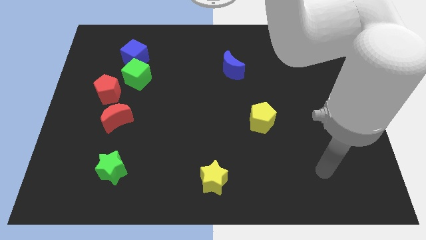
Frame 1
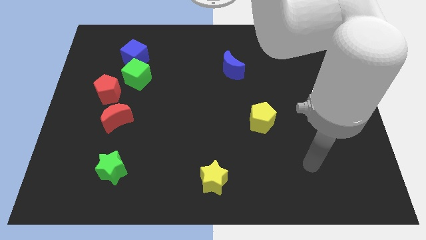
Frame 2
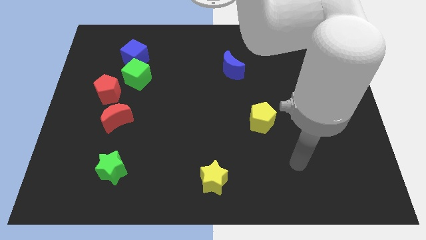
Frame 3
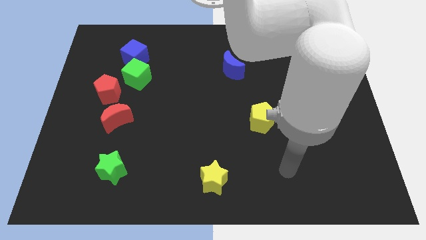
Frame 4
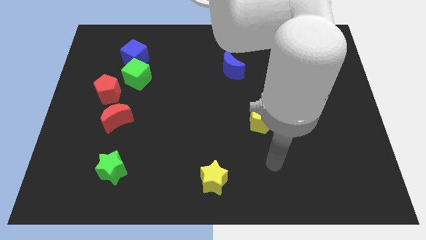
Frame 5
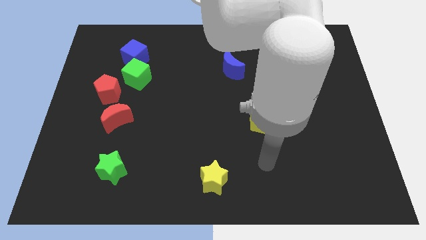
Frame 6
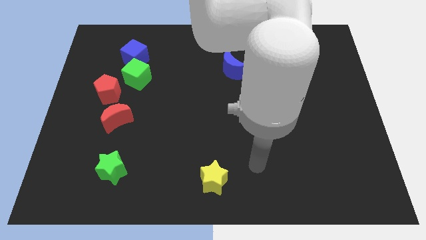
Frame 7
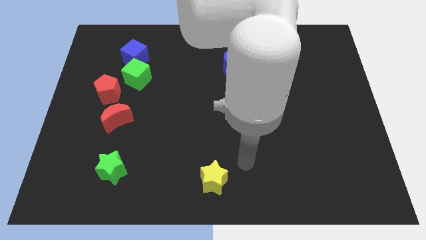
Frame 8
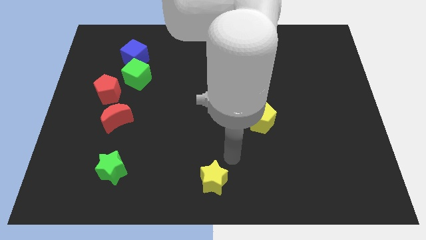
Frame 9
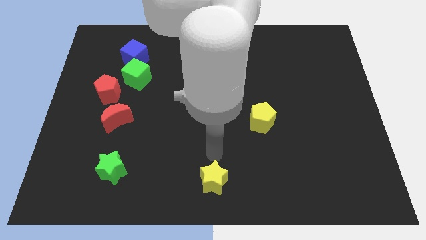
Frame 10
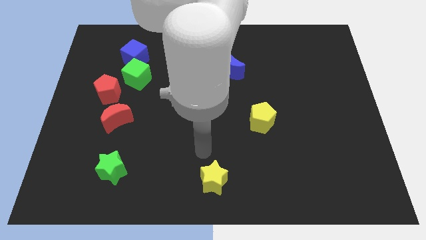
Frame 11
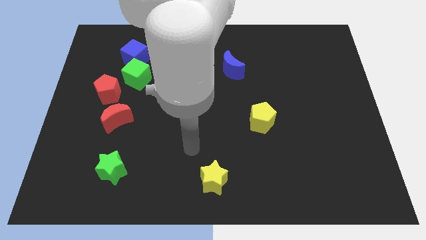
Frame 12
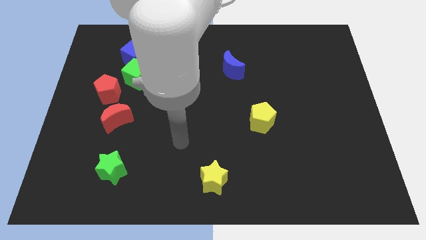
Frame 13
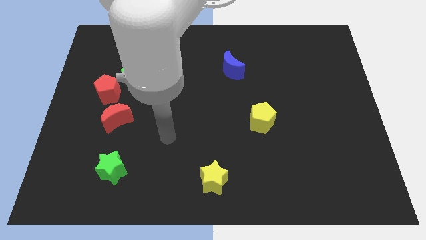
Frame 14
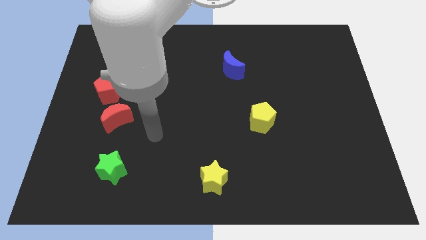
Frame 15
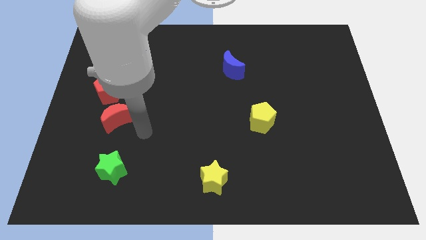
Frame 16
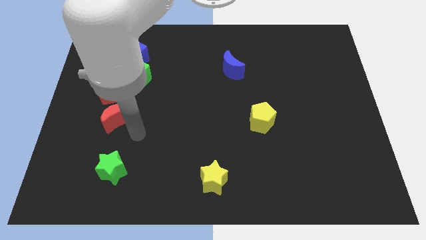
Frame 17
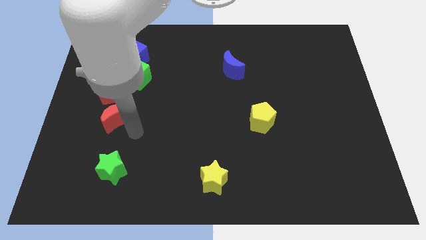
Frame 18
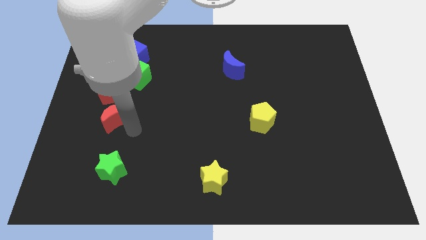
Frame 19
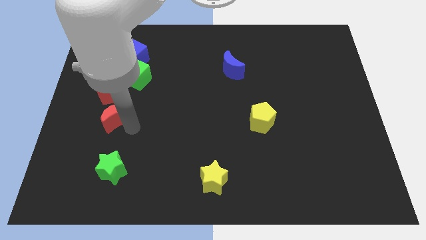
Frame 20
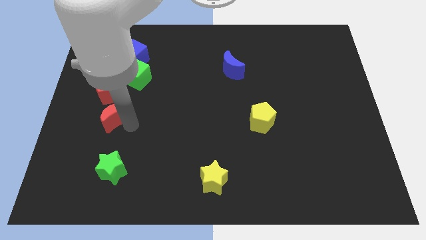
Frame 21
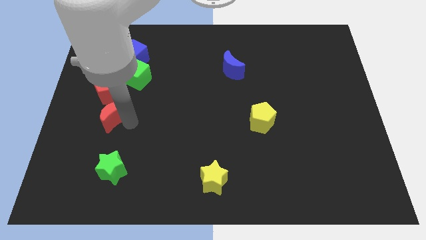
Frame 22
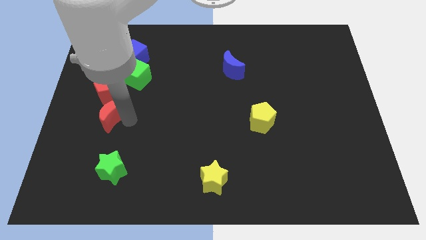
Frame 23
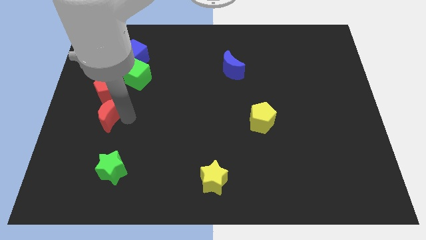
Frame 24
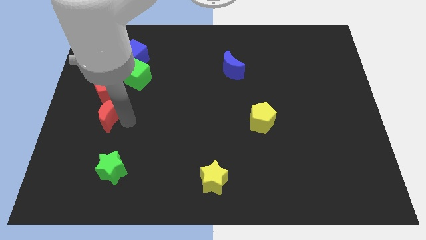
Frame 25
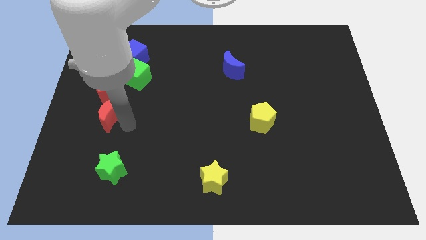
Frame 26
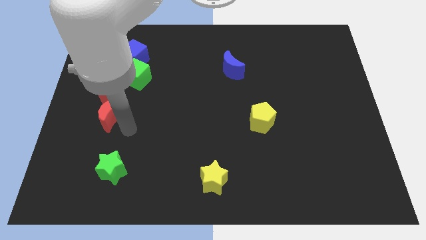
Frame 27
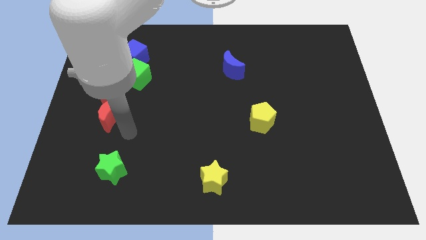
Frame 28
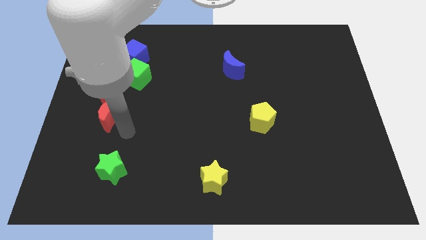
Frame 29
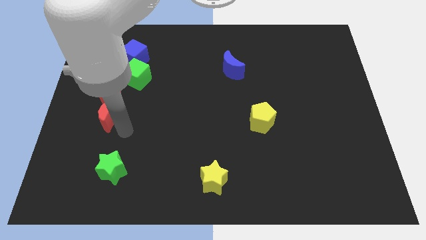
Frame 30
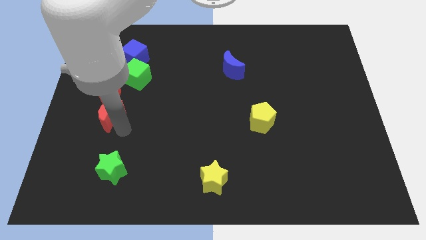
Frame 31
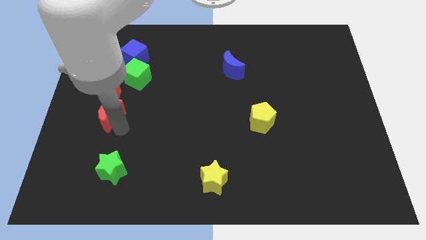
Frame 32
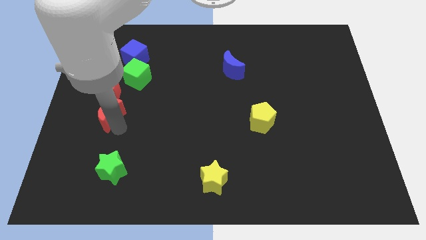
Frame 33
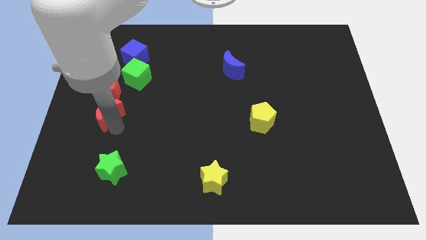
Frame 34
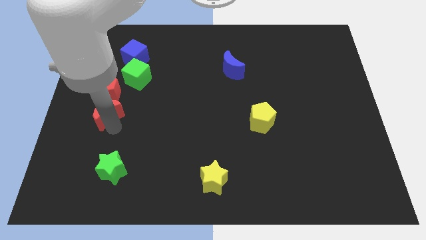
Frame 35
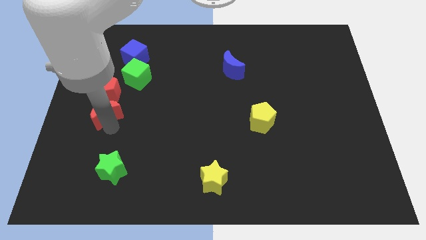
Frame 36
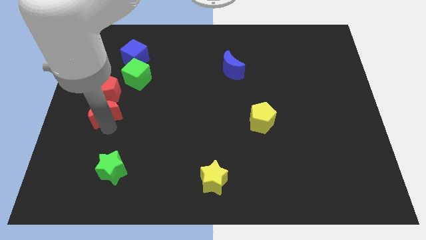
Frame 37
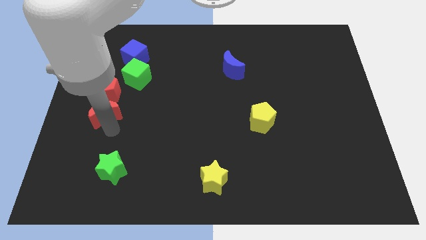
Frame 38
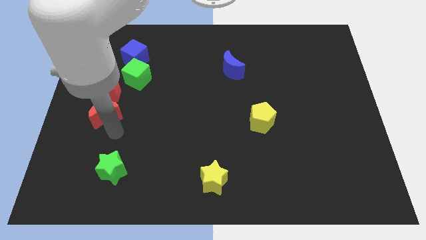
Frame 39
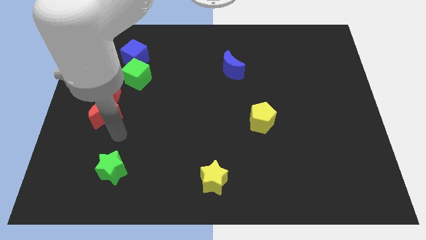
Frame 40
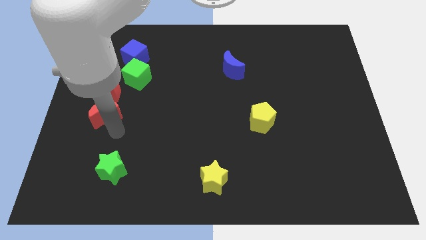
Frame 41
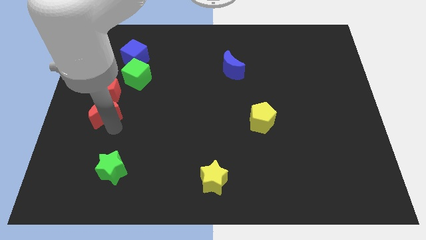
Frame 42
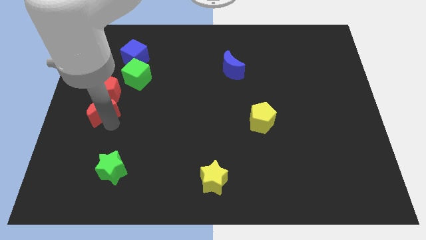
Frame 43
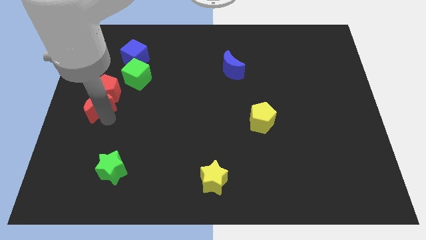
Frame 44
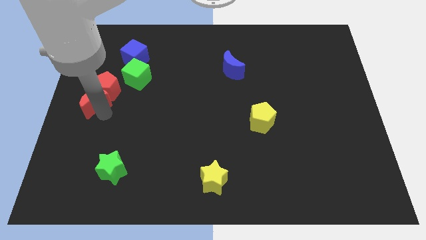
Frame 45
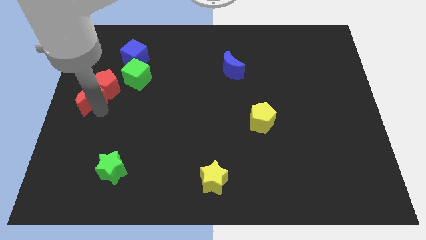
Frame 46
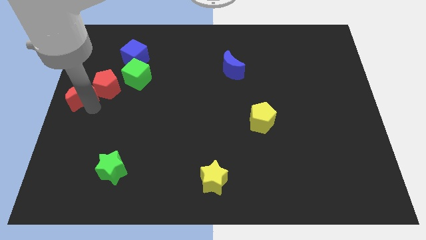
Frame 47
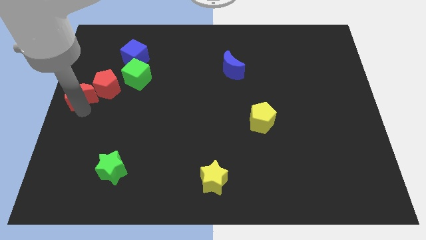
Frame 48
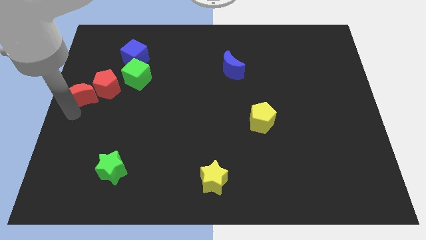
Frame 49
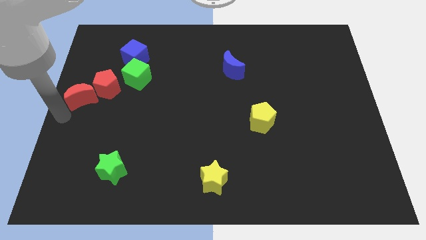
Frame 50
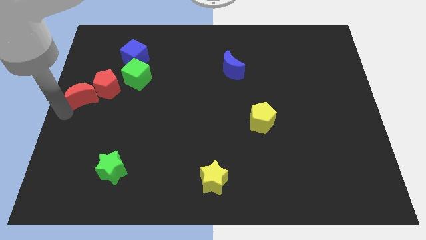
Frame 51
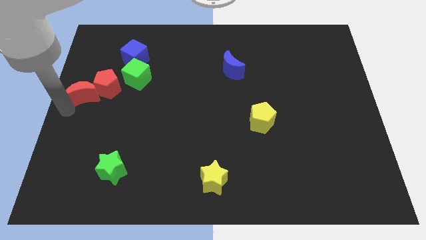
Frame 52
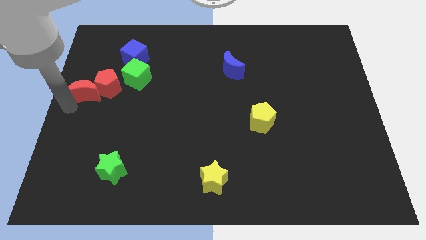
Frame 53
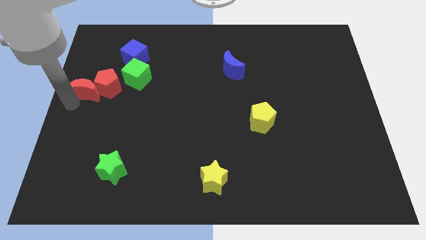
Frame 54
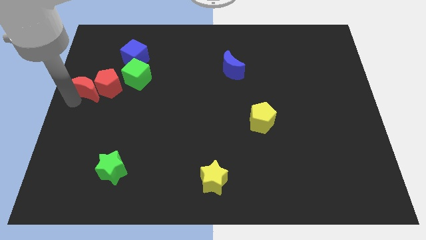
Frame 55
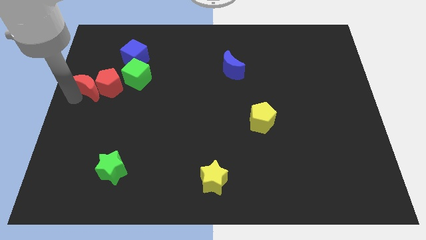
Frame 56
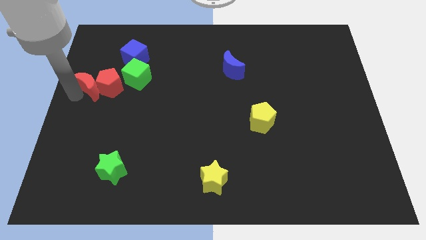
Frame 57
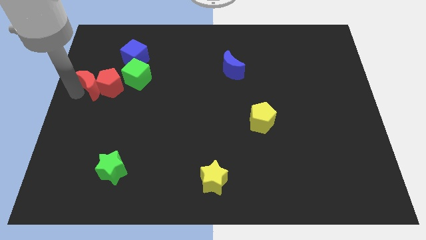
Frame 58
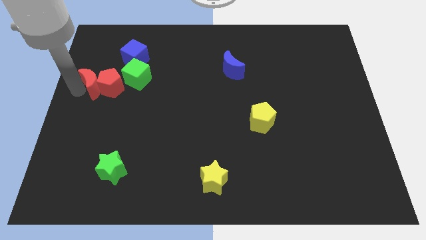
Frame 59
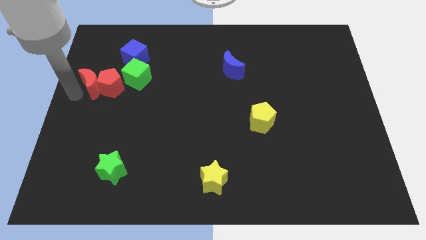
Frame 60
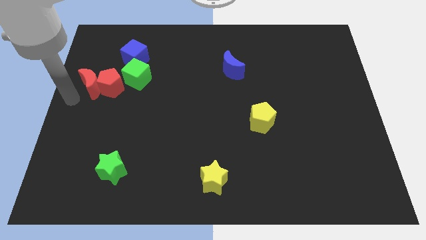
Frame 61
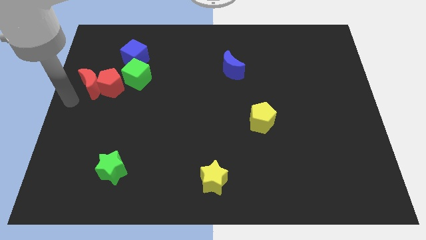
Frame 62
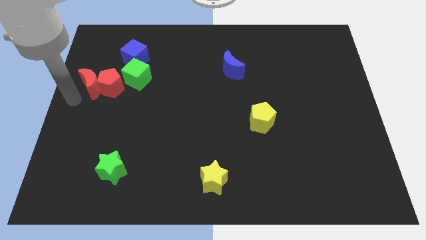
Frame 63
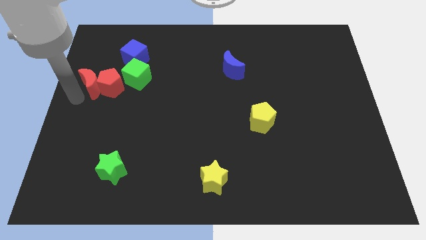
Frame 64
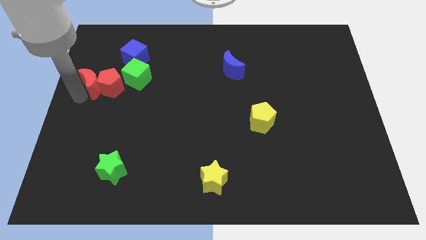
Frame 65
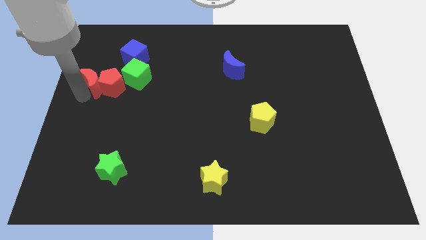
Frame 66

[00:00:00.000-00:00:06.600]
slide the red moon diagonally down and to the left of the blue cube

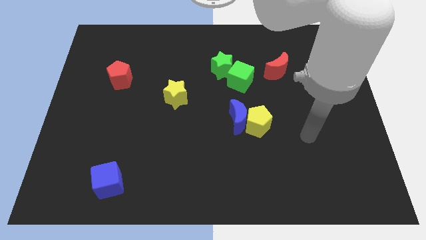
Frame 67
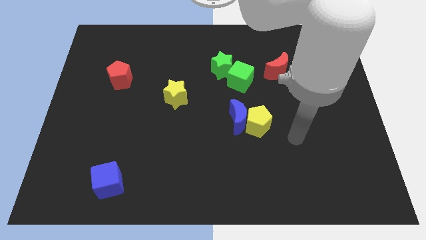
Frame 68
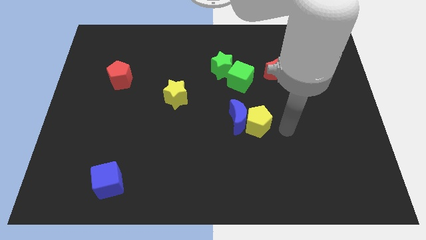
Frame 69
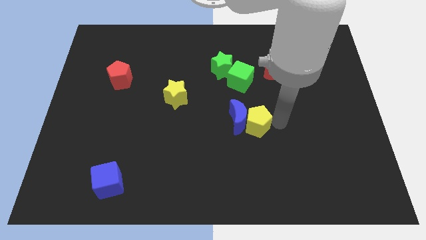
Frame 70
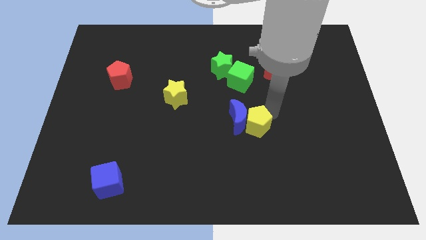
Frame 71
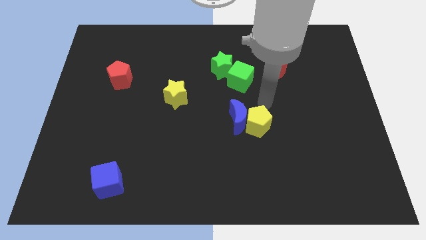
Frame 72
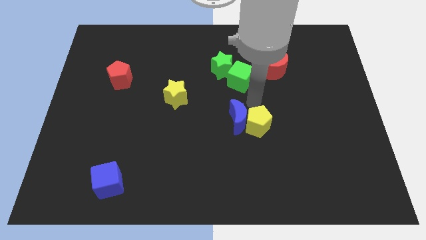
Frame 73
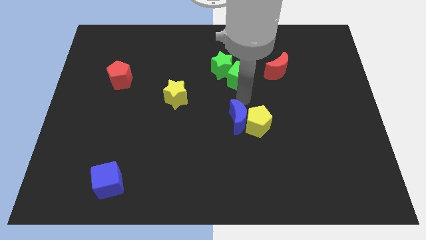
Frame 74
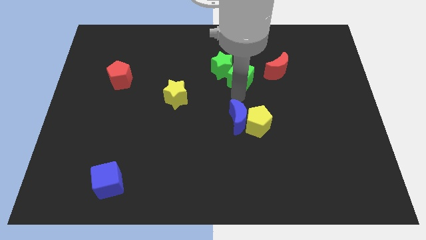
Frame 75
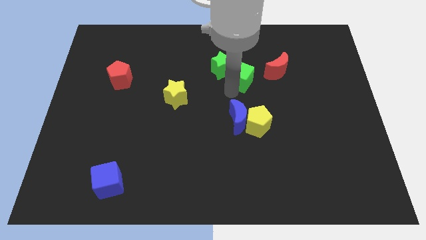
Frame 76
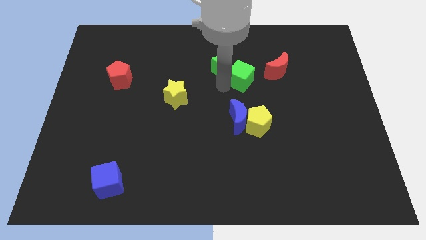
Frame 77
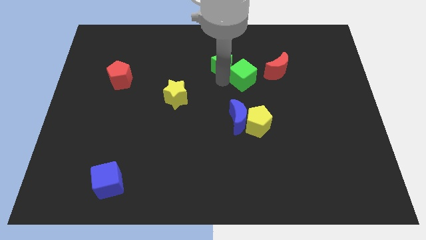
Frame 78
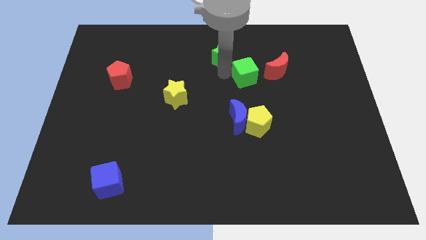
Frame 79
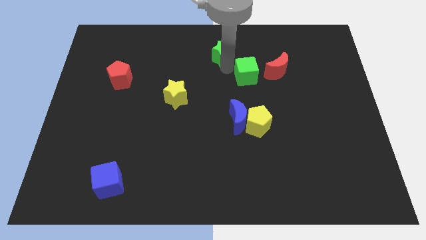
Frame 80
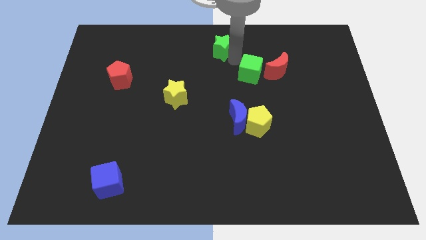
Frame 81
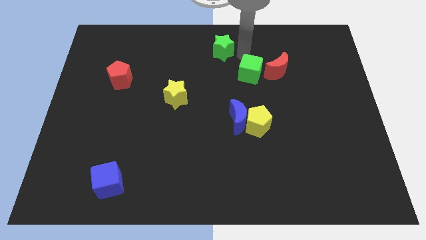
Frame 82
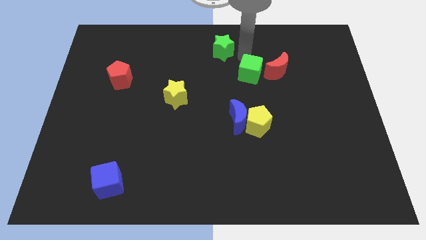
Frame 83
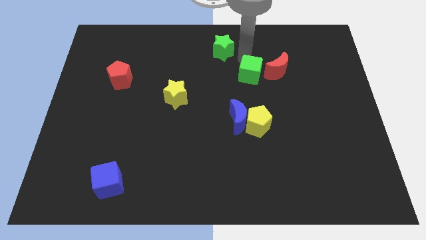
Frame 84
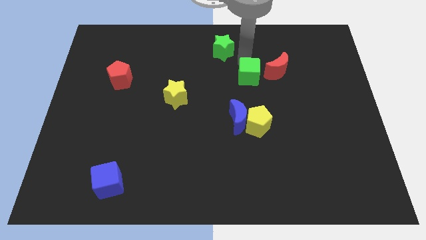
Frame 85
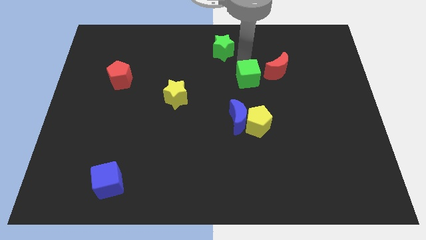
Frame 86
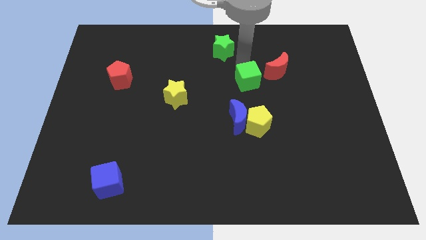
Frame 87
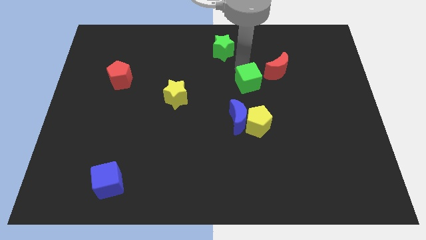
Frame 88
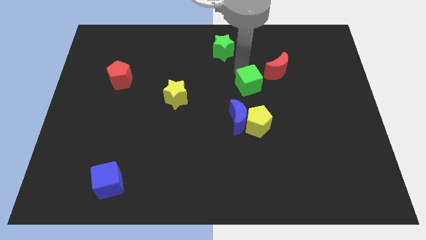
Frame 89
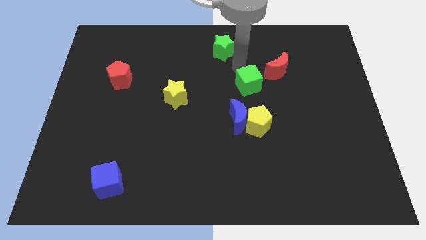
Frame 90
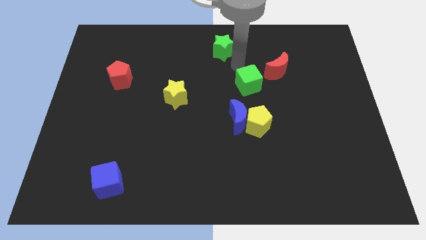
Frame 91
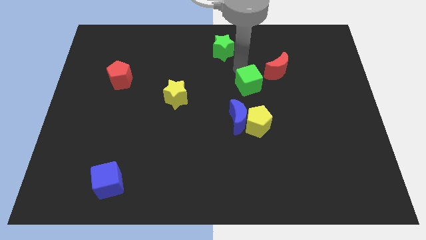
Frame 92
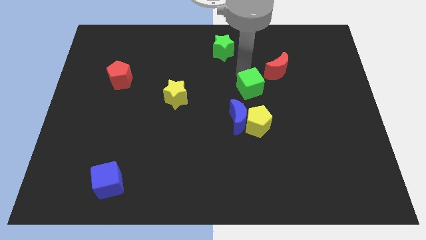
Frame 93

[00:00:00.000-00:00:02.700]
push the green cube to the top right of the blue moon
